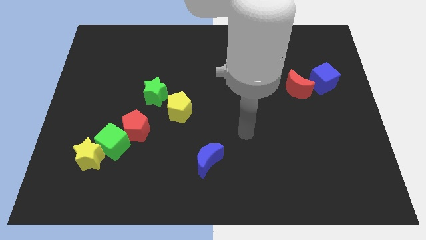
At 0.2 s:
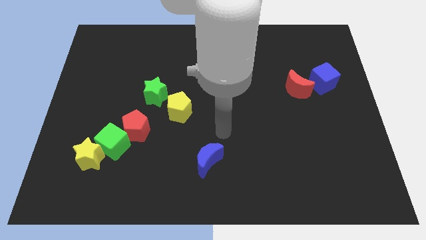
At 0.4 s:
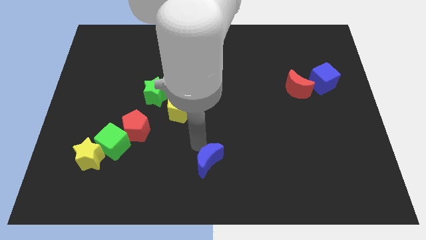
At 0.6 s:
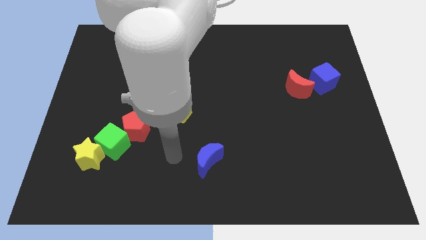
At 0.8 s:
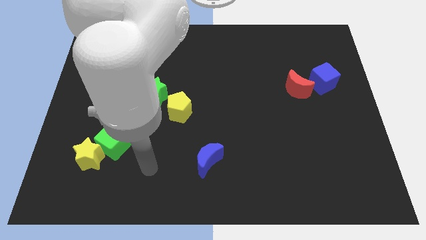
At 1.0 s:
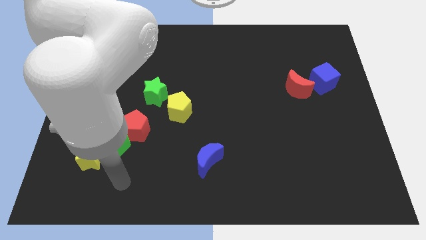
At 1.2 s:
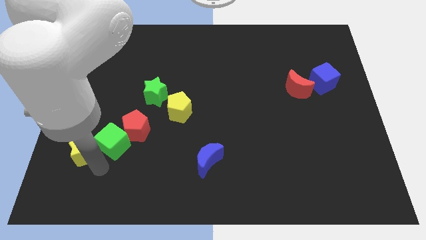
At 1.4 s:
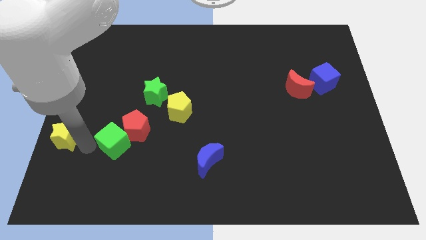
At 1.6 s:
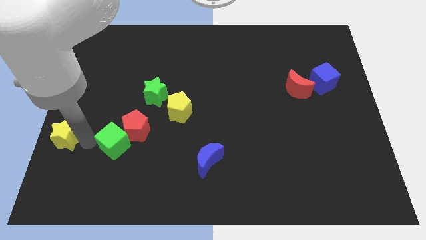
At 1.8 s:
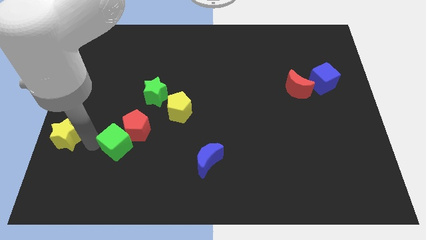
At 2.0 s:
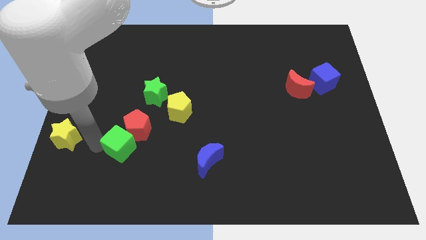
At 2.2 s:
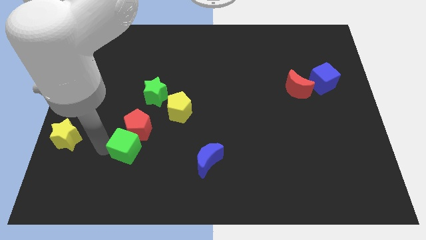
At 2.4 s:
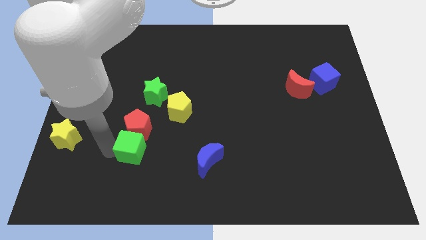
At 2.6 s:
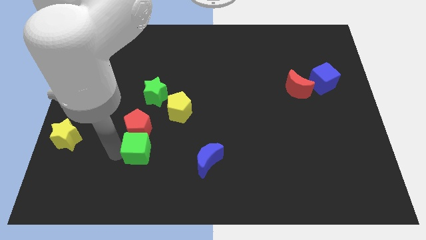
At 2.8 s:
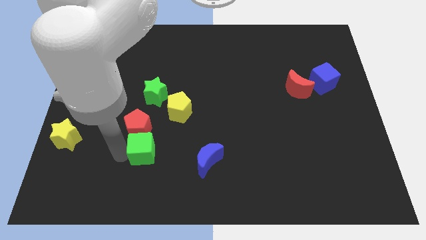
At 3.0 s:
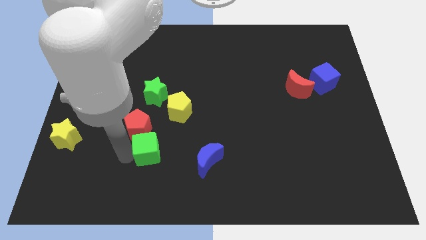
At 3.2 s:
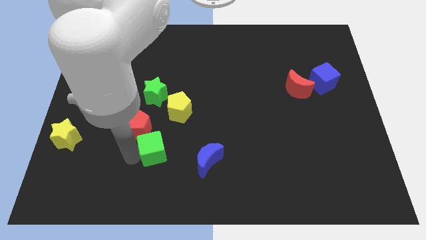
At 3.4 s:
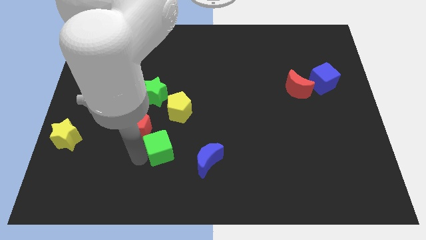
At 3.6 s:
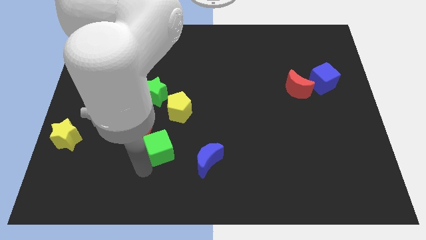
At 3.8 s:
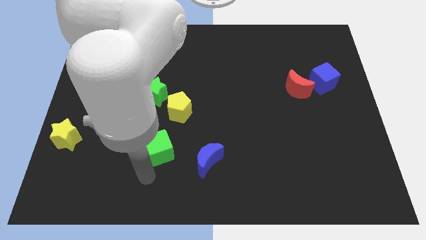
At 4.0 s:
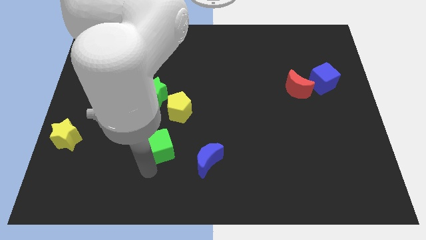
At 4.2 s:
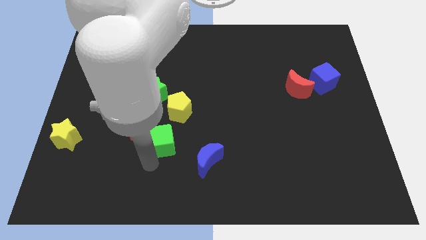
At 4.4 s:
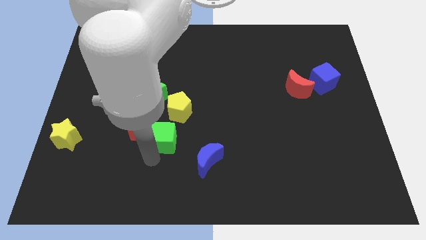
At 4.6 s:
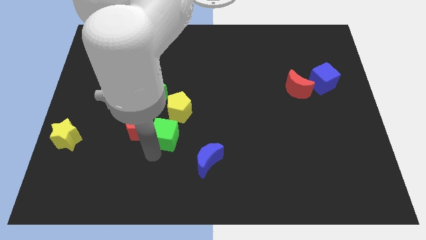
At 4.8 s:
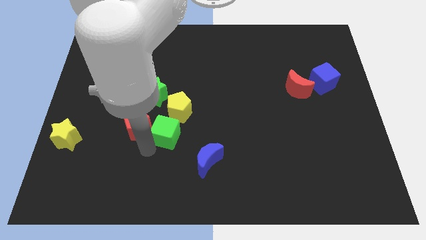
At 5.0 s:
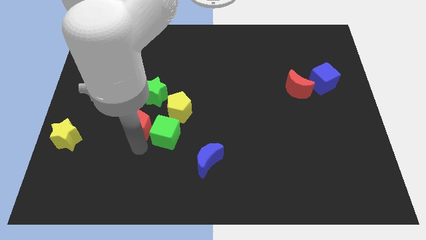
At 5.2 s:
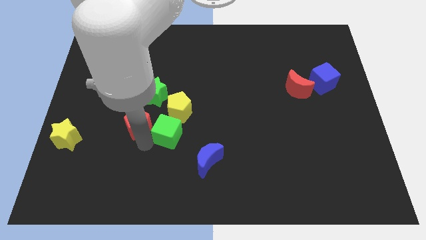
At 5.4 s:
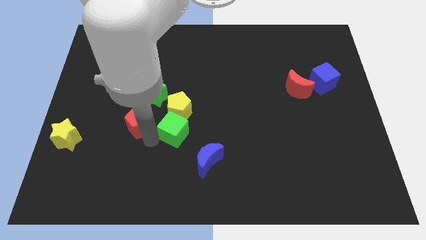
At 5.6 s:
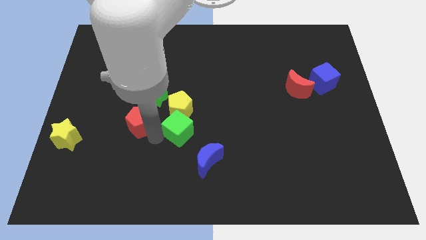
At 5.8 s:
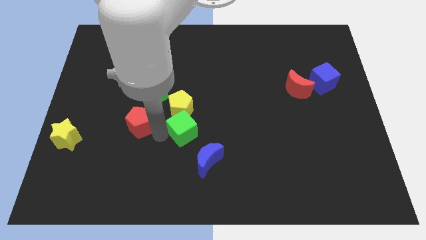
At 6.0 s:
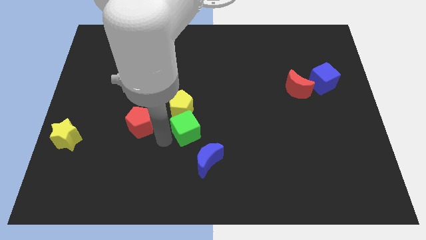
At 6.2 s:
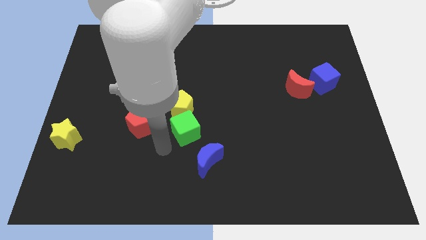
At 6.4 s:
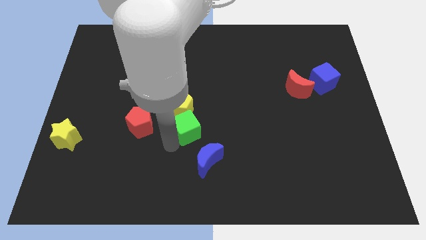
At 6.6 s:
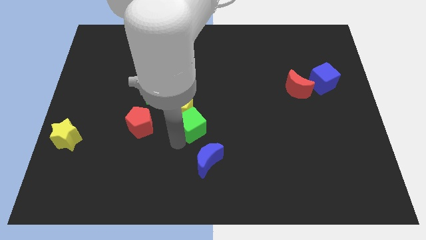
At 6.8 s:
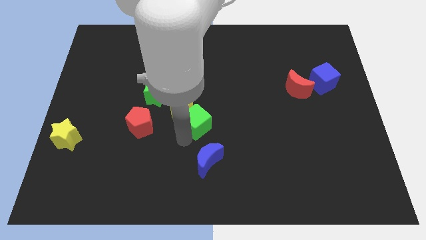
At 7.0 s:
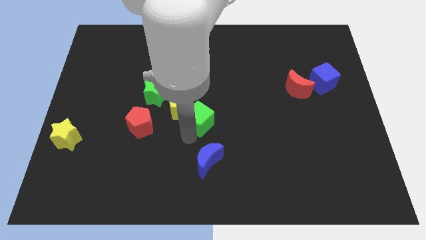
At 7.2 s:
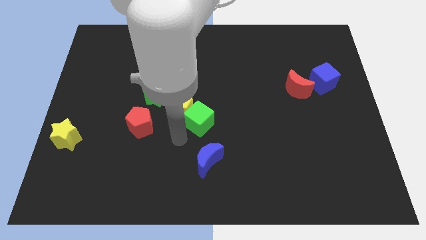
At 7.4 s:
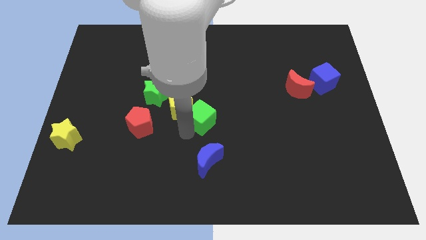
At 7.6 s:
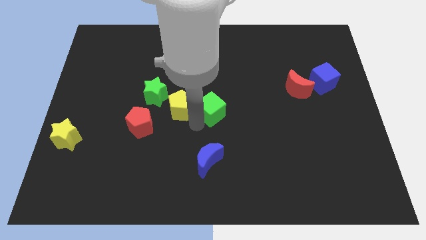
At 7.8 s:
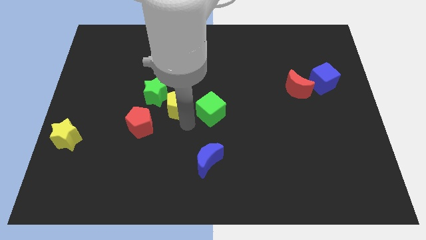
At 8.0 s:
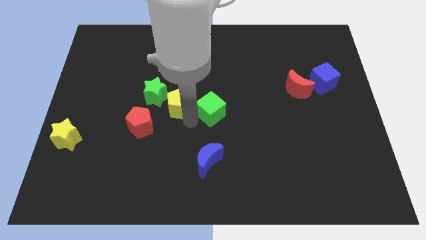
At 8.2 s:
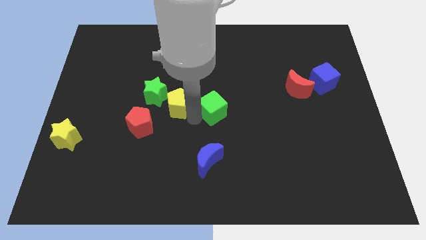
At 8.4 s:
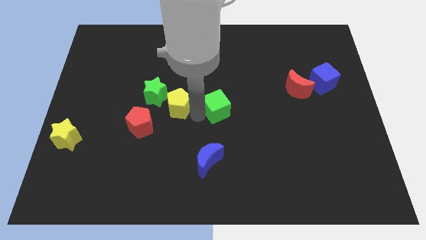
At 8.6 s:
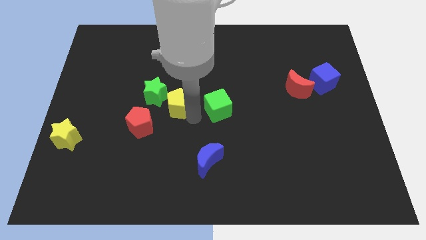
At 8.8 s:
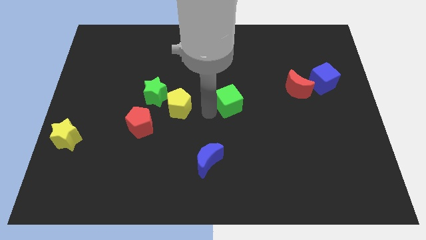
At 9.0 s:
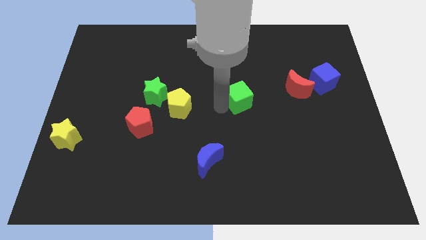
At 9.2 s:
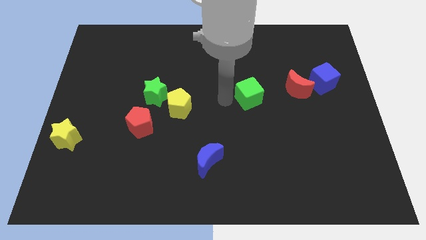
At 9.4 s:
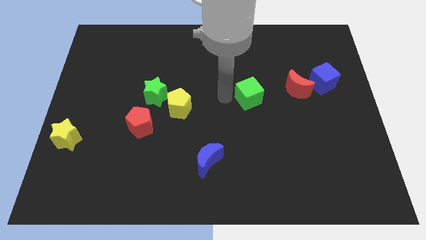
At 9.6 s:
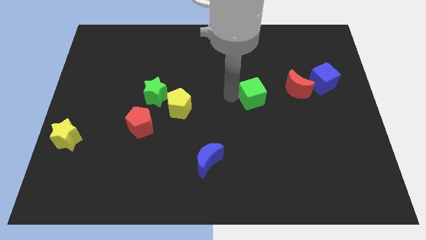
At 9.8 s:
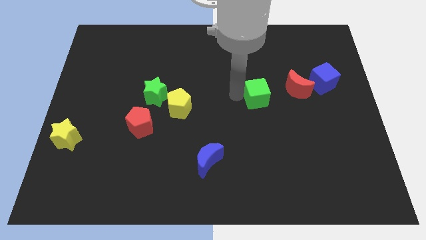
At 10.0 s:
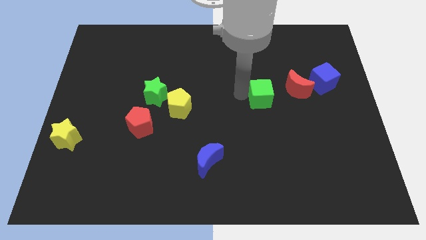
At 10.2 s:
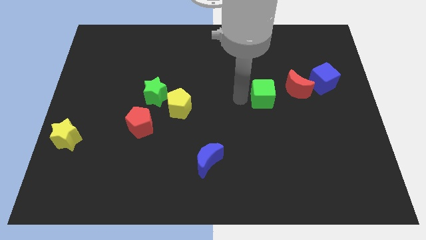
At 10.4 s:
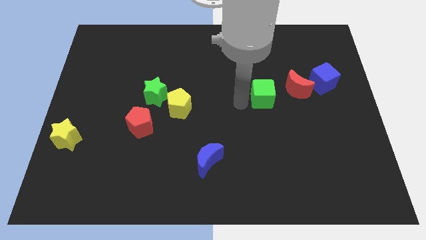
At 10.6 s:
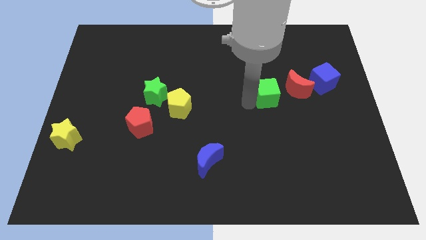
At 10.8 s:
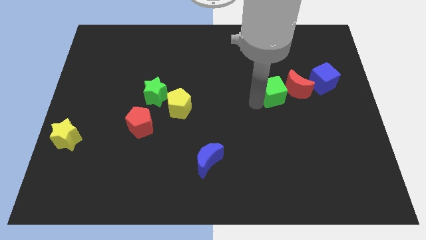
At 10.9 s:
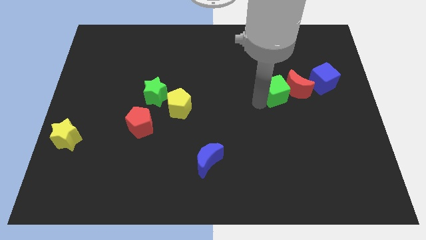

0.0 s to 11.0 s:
move the green cube to the red moon
